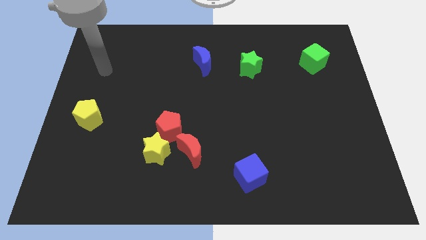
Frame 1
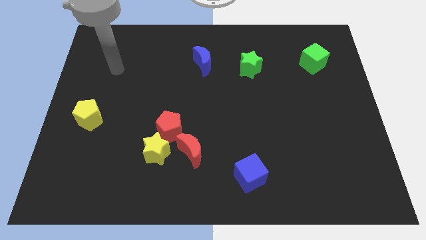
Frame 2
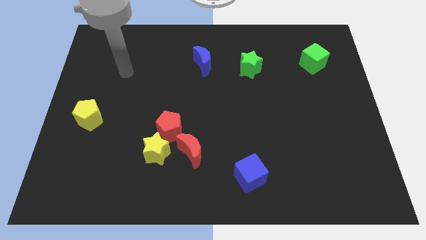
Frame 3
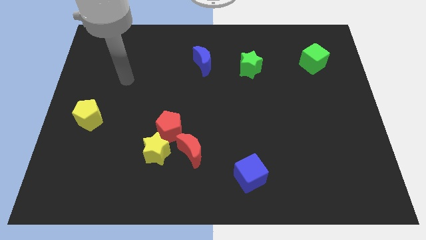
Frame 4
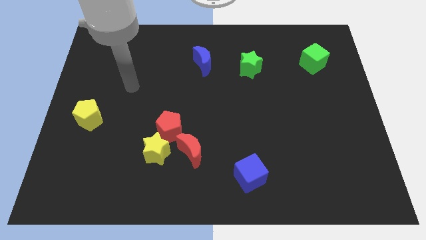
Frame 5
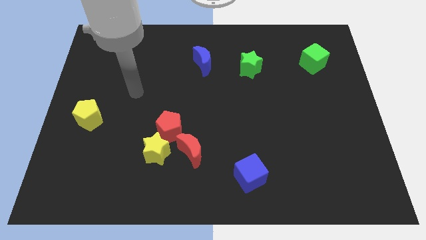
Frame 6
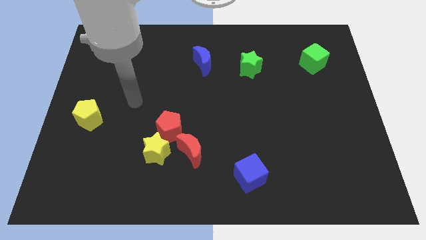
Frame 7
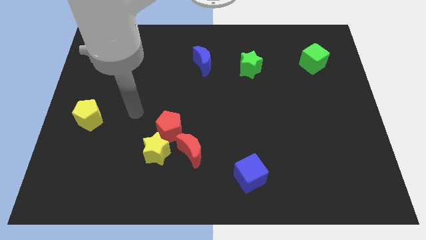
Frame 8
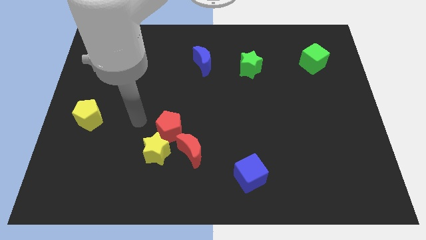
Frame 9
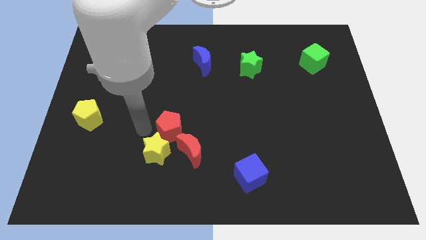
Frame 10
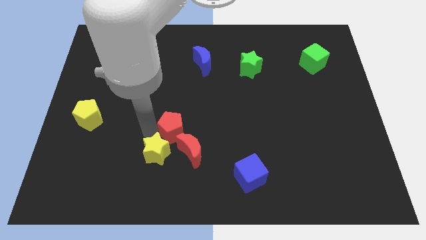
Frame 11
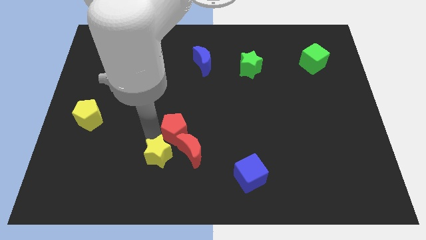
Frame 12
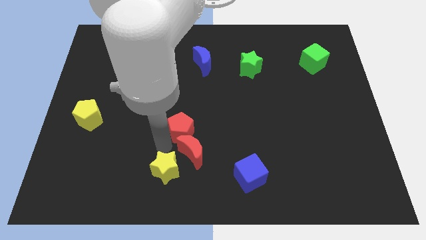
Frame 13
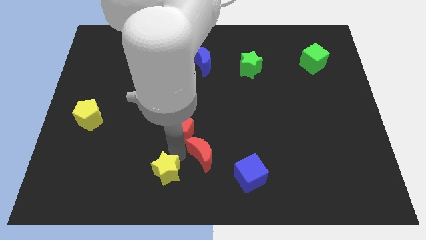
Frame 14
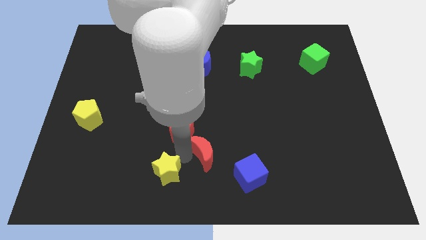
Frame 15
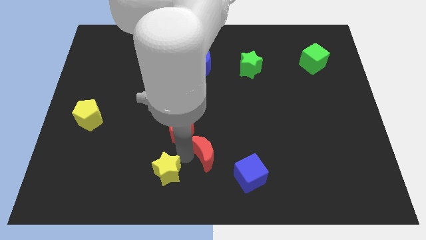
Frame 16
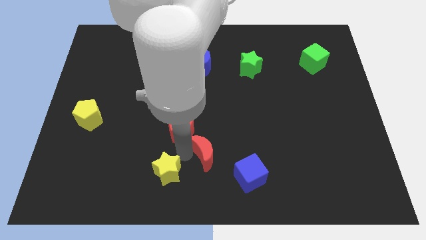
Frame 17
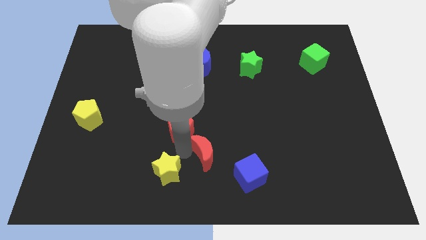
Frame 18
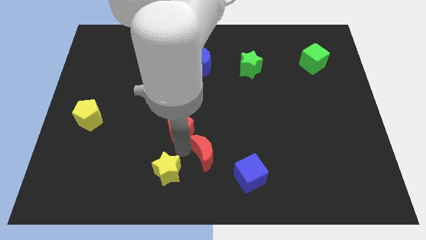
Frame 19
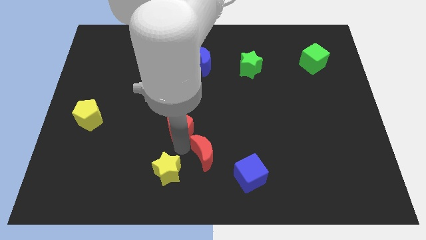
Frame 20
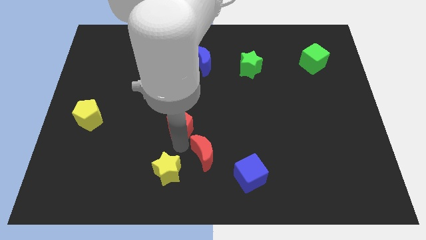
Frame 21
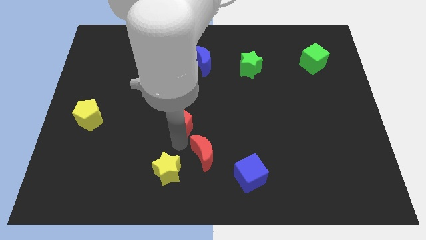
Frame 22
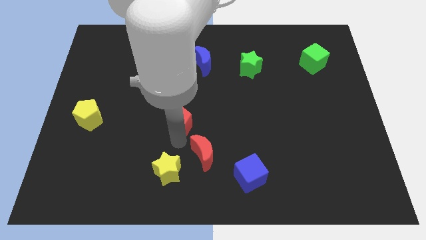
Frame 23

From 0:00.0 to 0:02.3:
separate the red pentagon from the yellow star and red moon

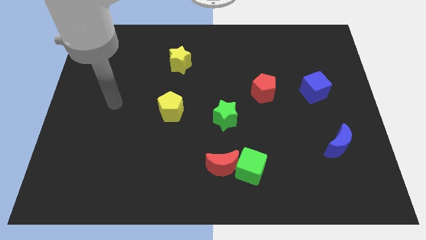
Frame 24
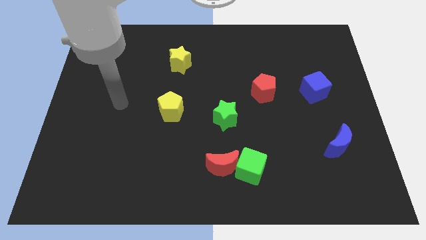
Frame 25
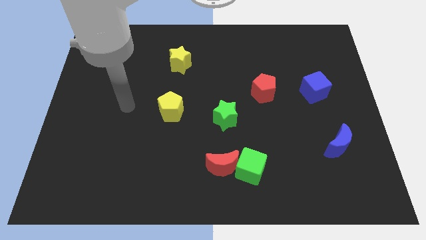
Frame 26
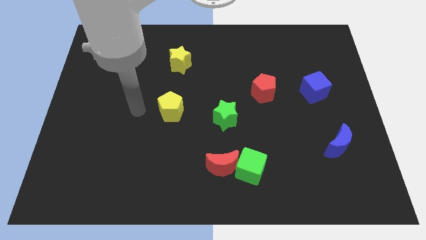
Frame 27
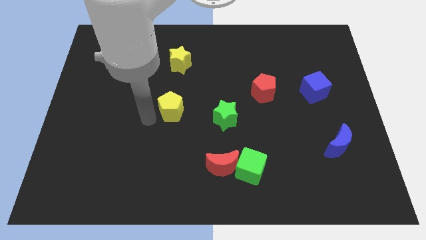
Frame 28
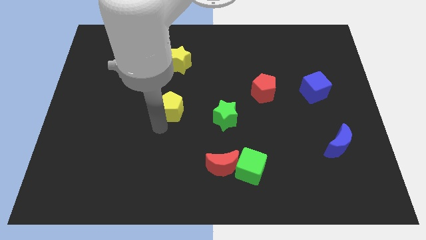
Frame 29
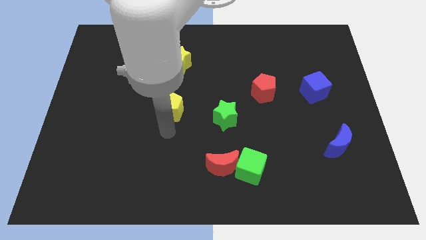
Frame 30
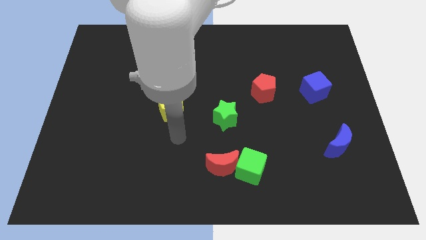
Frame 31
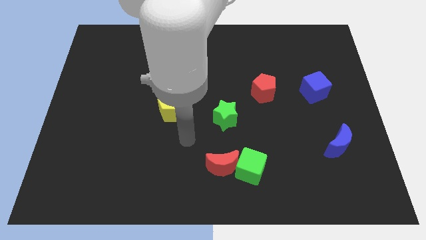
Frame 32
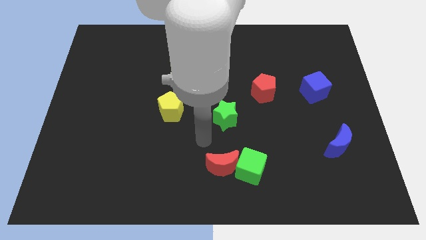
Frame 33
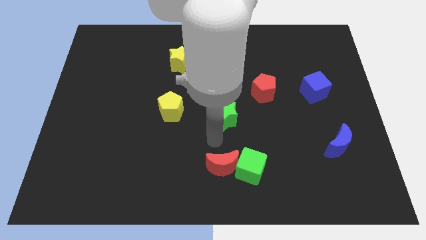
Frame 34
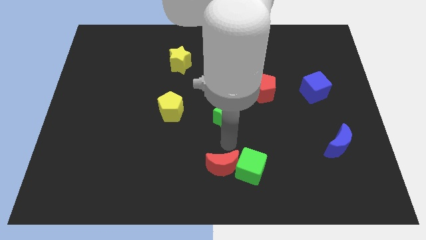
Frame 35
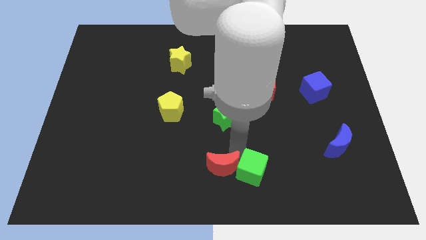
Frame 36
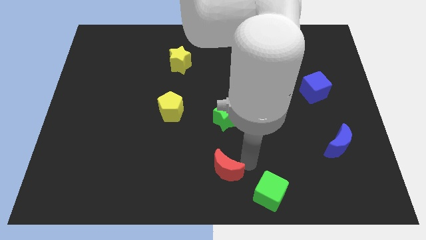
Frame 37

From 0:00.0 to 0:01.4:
separate the red moon from the green cube

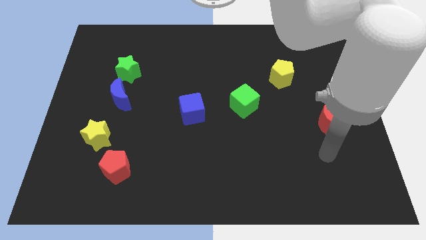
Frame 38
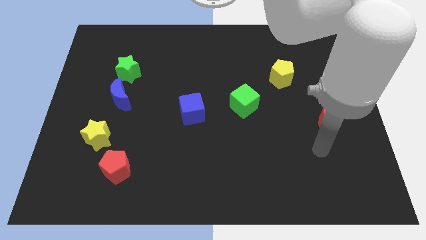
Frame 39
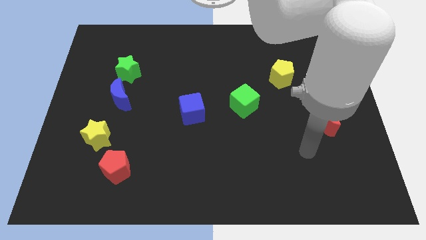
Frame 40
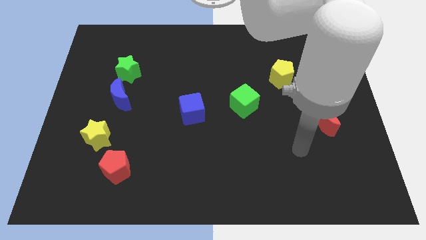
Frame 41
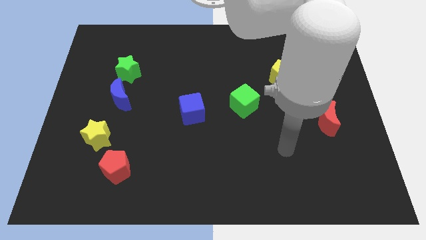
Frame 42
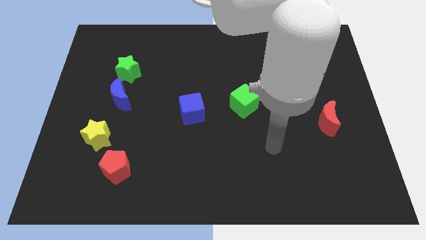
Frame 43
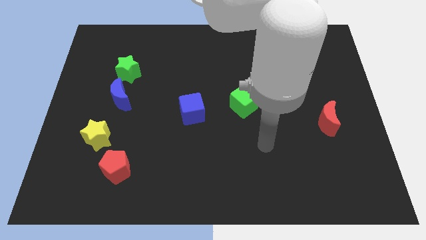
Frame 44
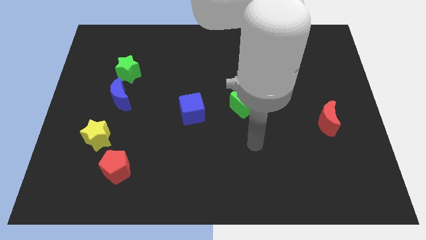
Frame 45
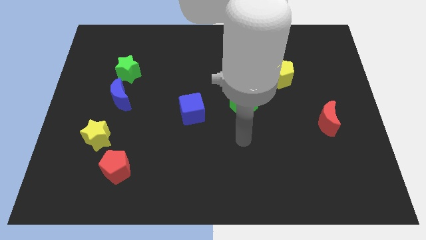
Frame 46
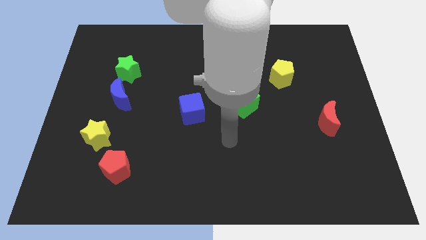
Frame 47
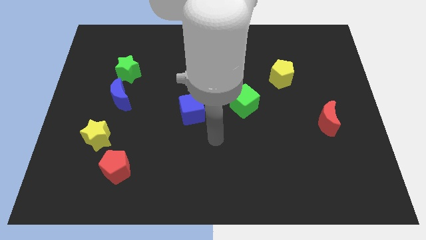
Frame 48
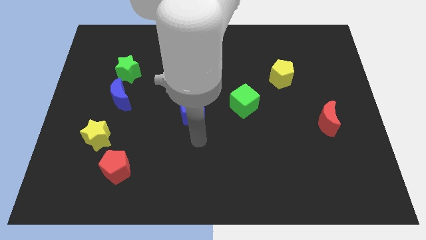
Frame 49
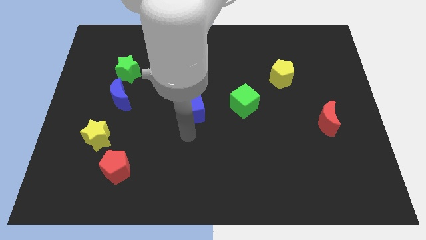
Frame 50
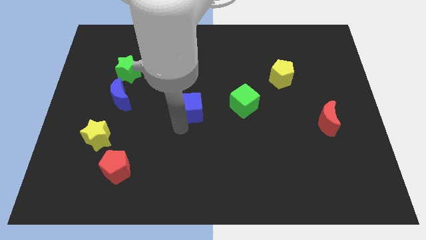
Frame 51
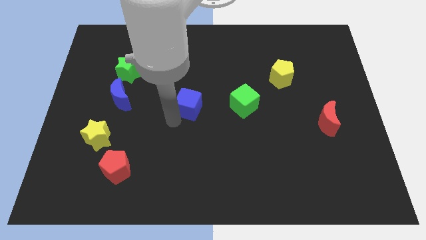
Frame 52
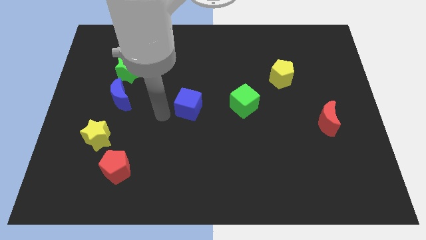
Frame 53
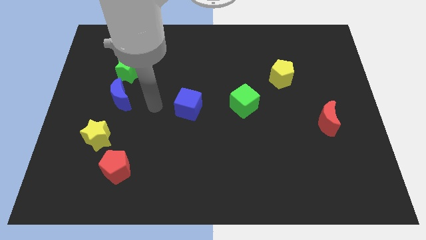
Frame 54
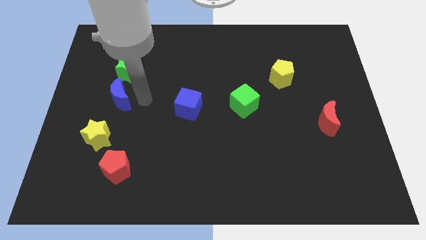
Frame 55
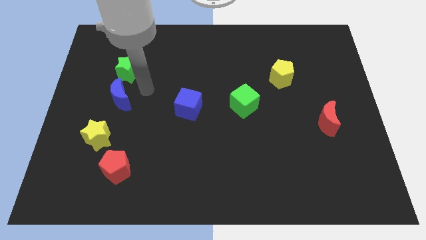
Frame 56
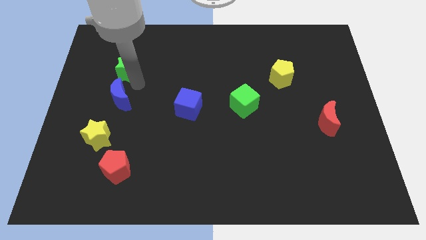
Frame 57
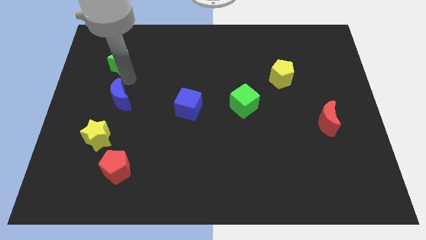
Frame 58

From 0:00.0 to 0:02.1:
separate the blue moon from the green star

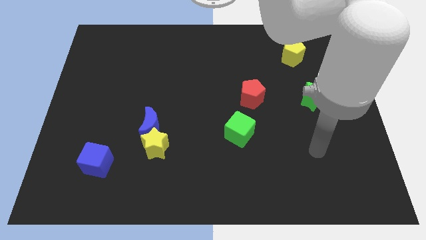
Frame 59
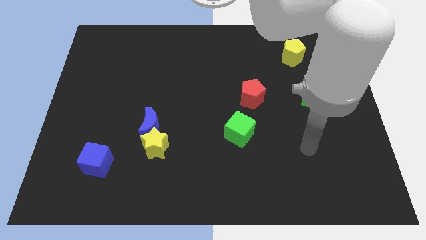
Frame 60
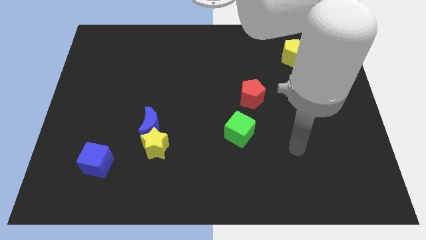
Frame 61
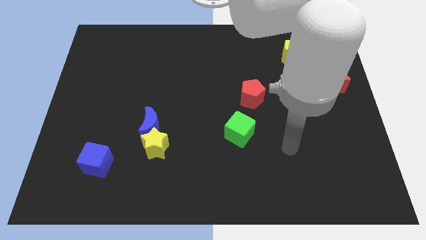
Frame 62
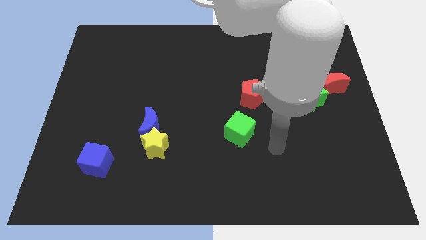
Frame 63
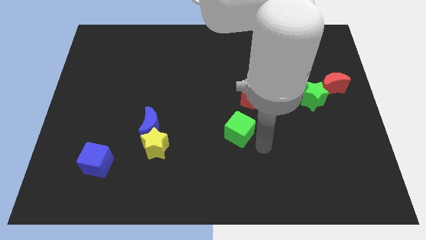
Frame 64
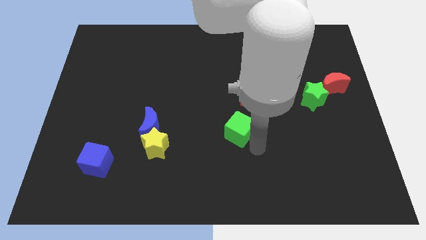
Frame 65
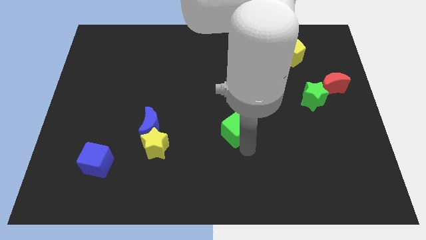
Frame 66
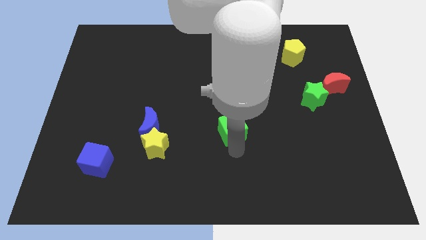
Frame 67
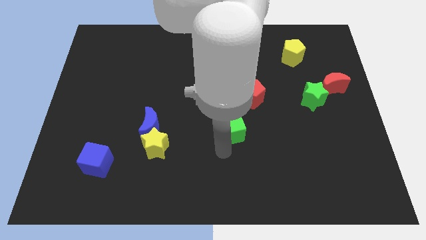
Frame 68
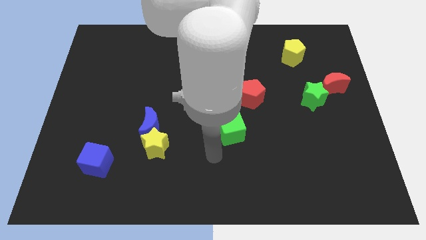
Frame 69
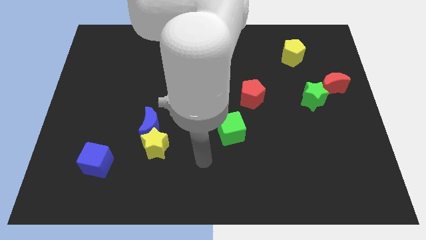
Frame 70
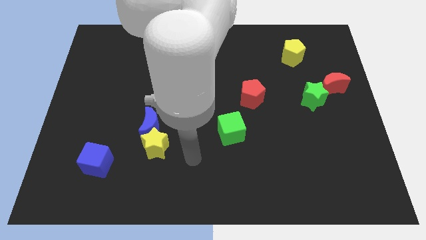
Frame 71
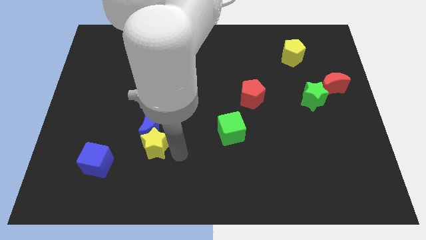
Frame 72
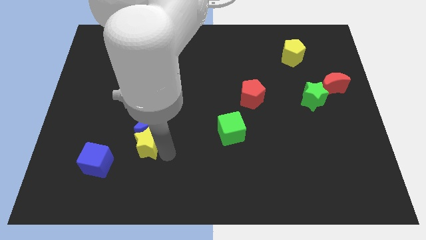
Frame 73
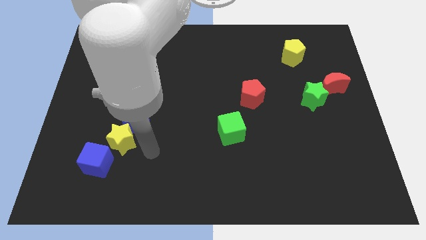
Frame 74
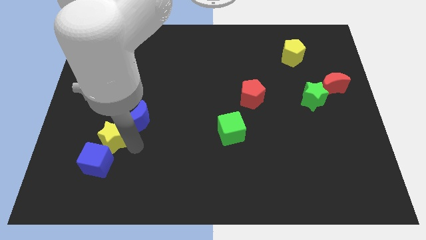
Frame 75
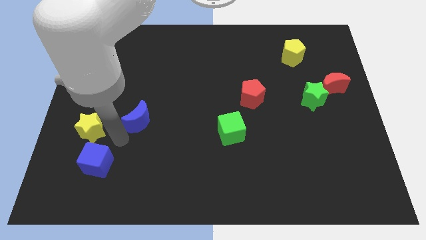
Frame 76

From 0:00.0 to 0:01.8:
move the blue moon away from the yellow star

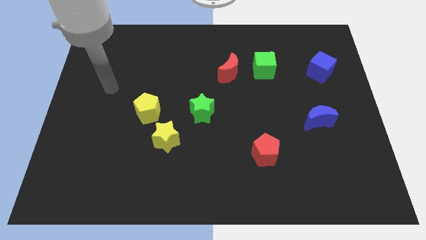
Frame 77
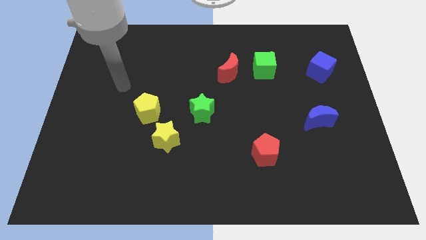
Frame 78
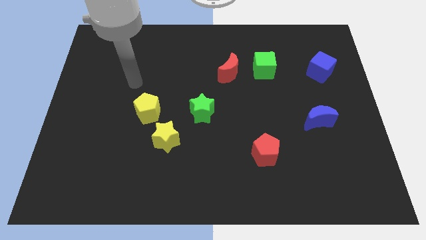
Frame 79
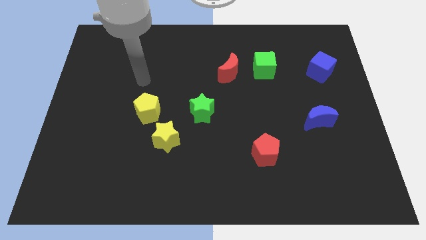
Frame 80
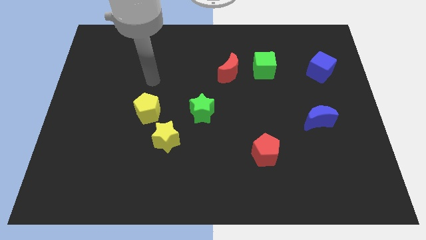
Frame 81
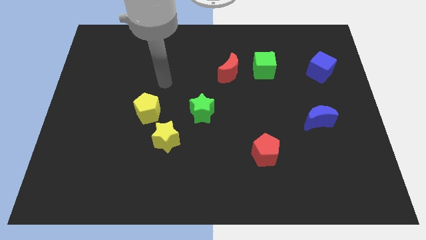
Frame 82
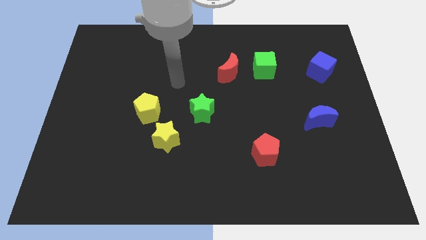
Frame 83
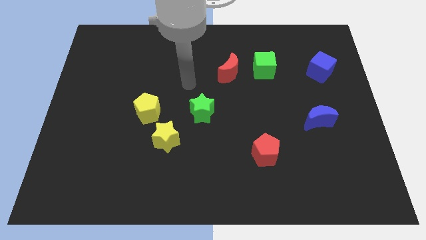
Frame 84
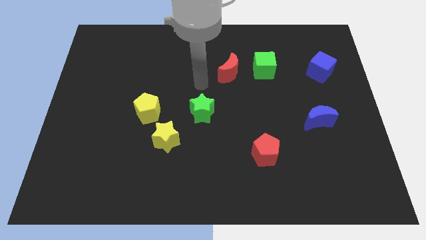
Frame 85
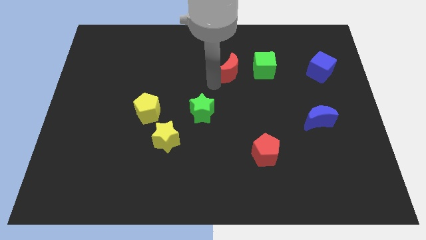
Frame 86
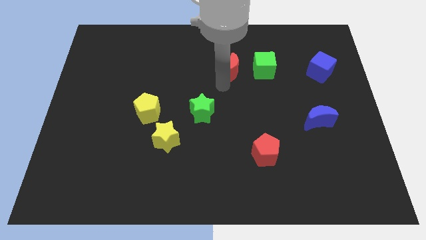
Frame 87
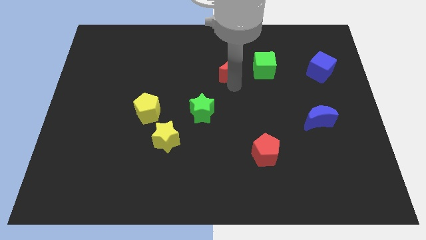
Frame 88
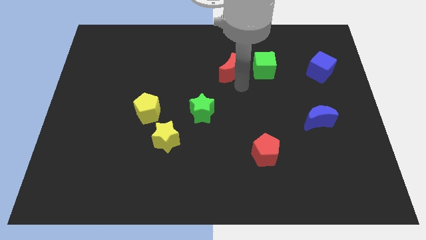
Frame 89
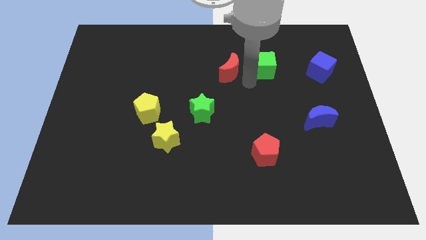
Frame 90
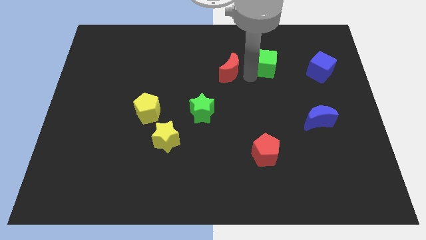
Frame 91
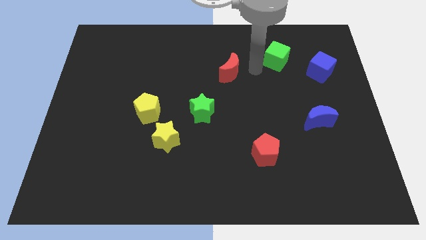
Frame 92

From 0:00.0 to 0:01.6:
pull the red moon apart from the green cube

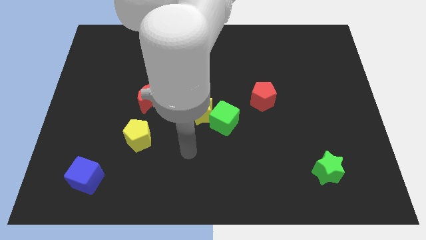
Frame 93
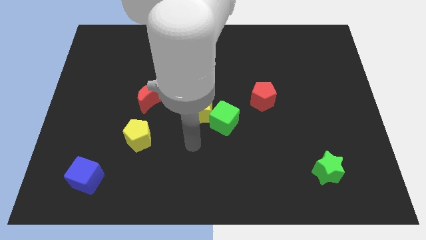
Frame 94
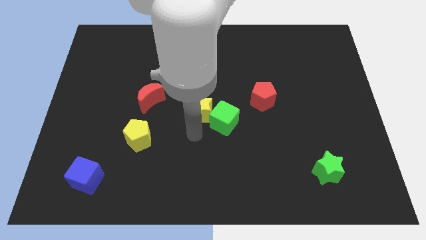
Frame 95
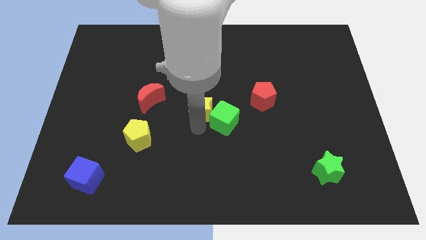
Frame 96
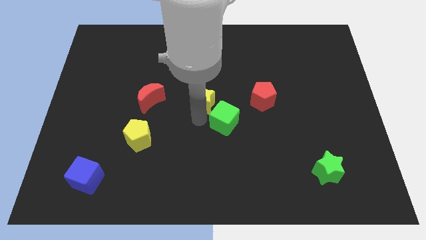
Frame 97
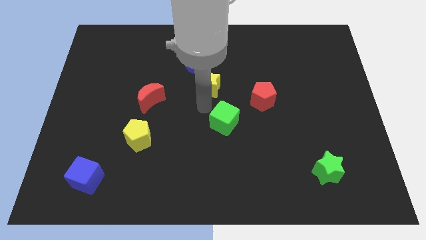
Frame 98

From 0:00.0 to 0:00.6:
separate the green cube from the yellow star
